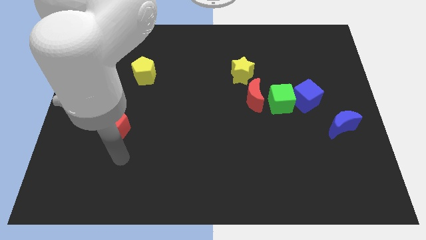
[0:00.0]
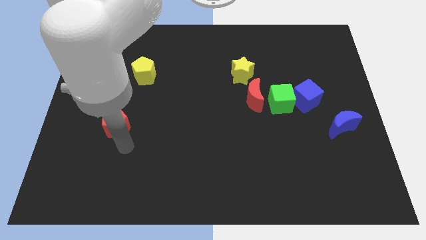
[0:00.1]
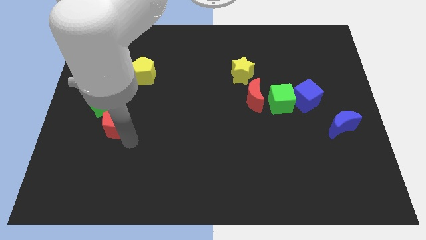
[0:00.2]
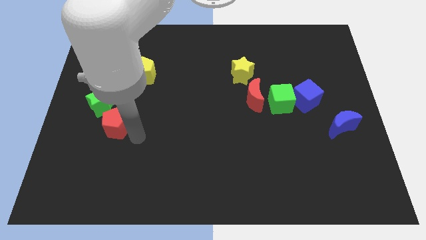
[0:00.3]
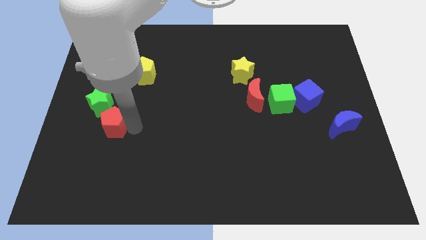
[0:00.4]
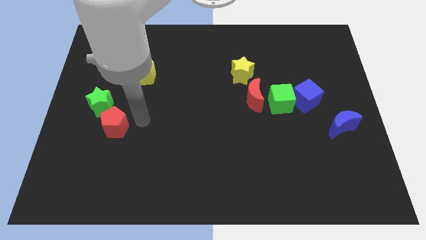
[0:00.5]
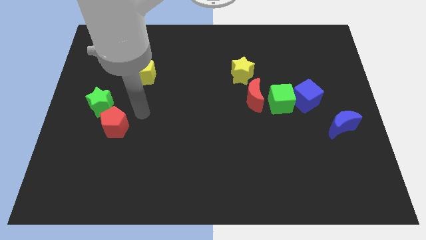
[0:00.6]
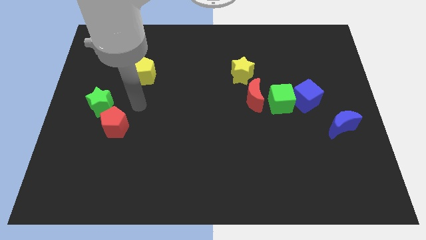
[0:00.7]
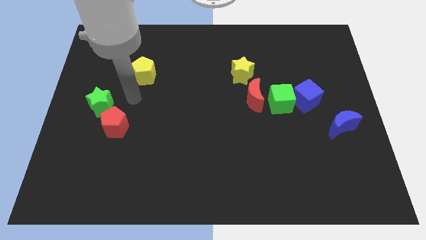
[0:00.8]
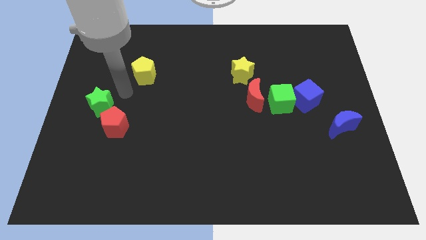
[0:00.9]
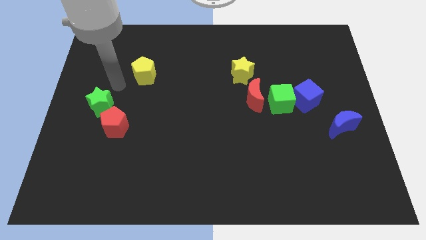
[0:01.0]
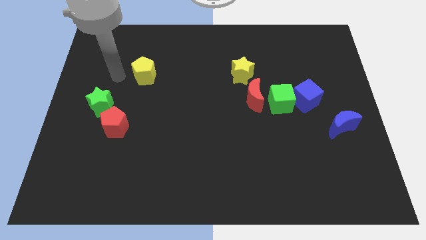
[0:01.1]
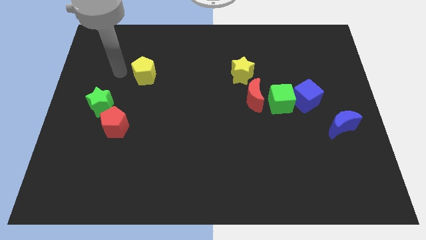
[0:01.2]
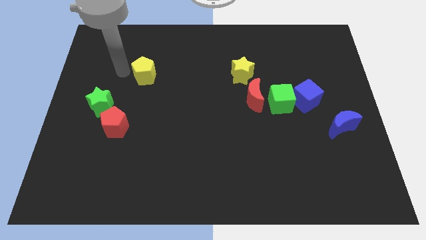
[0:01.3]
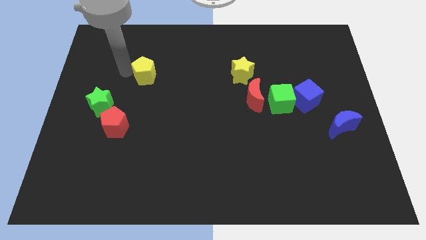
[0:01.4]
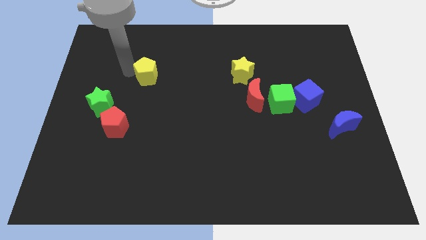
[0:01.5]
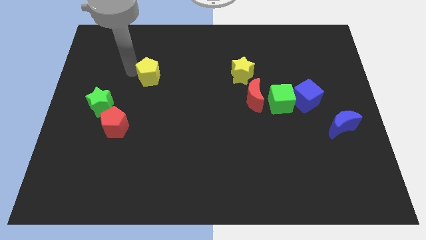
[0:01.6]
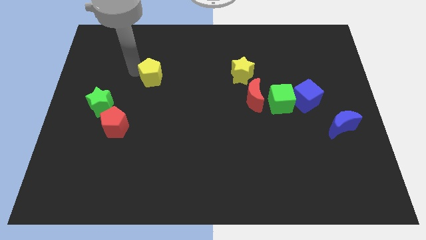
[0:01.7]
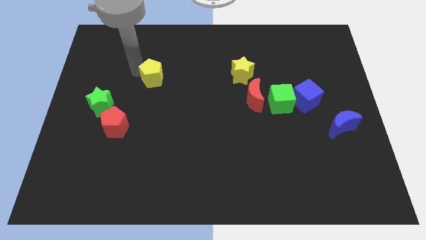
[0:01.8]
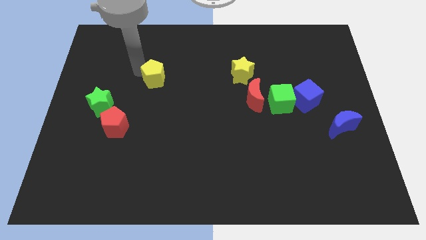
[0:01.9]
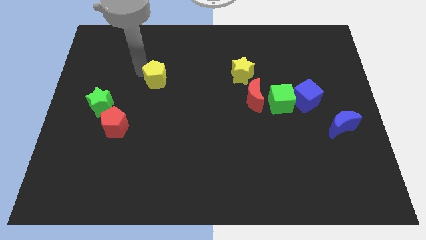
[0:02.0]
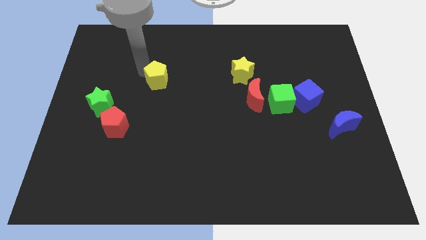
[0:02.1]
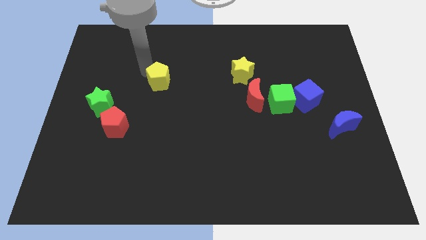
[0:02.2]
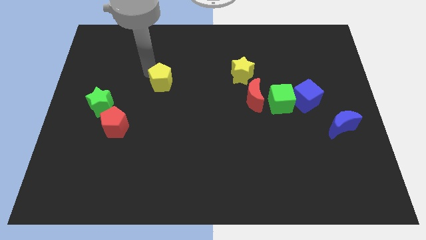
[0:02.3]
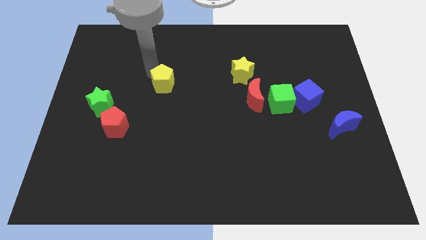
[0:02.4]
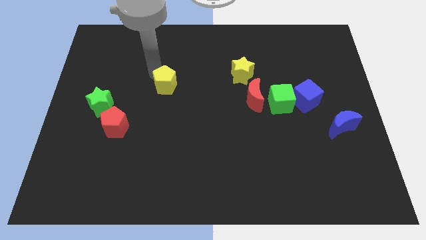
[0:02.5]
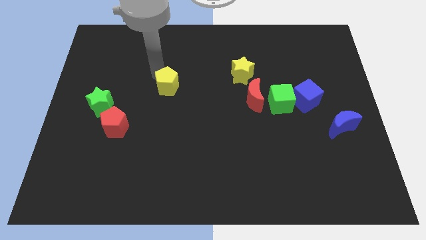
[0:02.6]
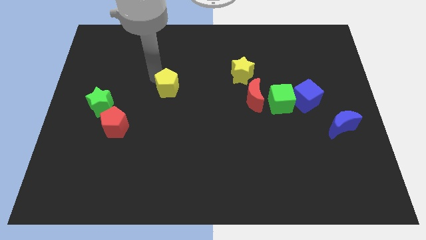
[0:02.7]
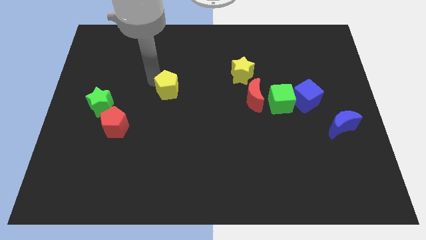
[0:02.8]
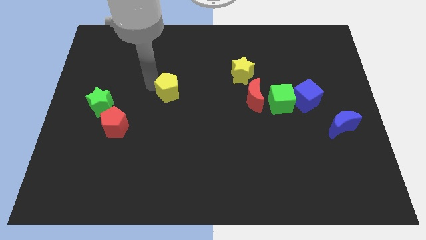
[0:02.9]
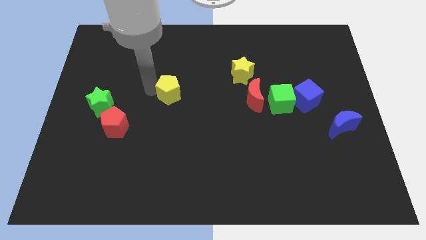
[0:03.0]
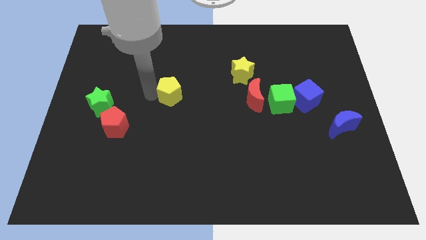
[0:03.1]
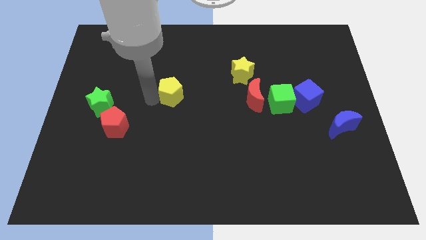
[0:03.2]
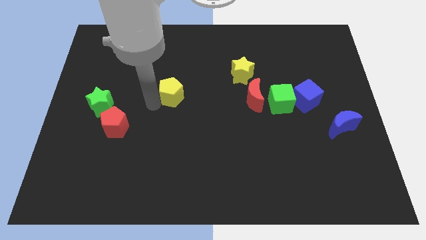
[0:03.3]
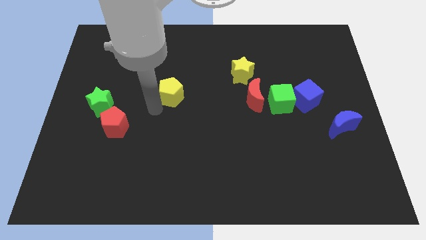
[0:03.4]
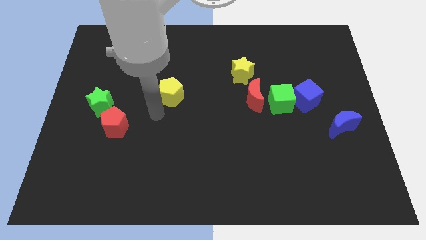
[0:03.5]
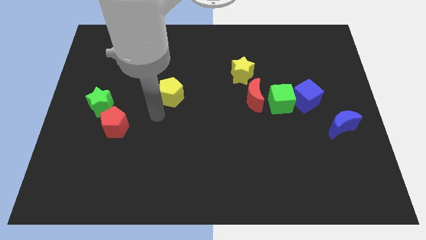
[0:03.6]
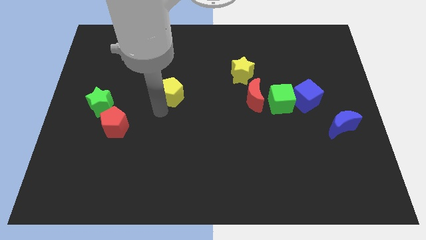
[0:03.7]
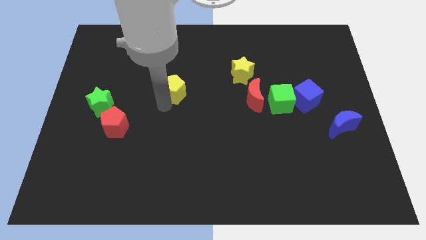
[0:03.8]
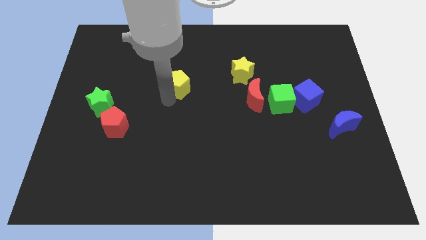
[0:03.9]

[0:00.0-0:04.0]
move the yellow pentagon somewhat right

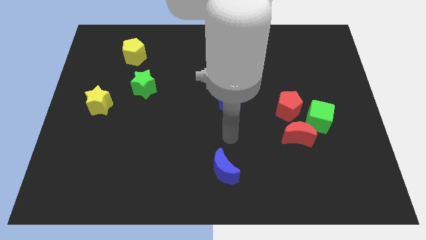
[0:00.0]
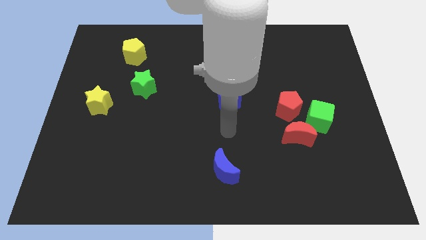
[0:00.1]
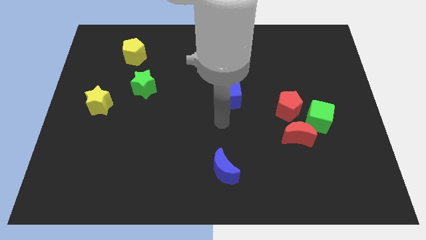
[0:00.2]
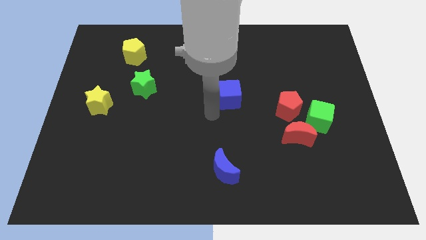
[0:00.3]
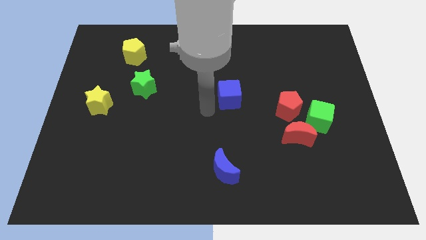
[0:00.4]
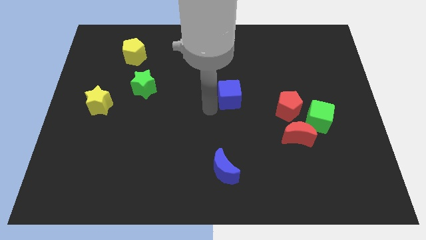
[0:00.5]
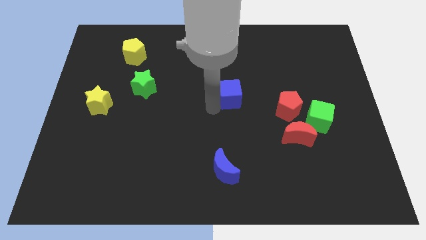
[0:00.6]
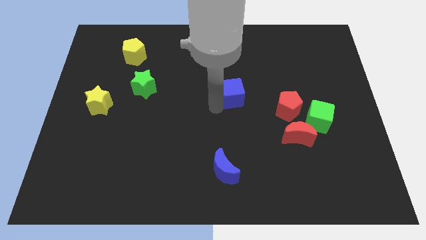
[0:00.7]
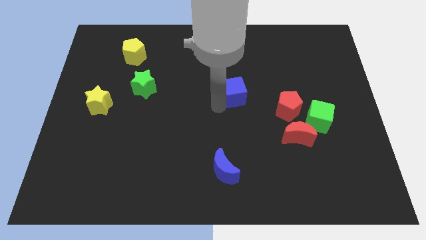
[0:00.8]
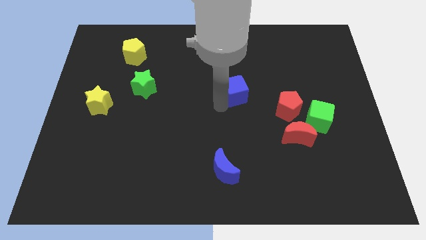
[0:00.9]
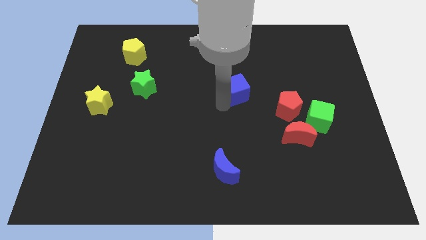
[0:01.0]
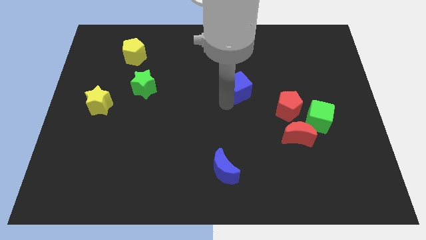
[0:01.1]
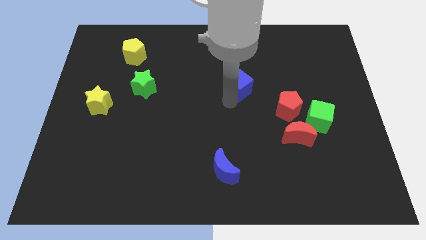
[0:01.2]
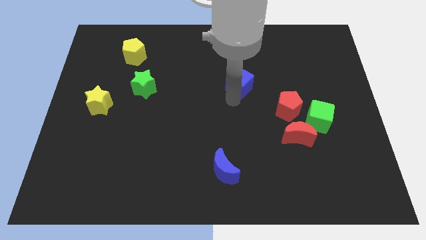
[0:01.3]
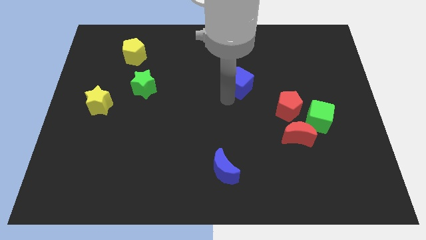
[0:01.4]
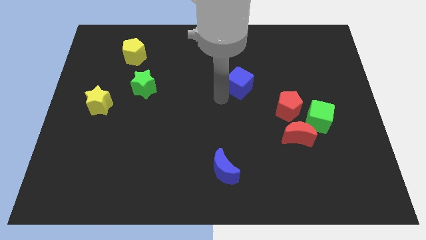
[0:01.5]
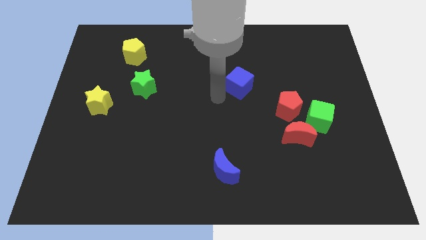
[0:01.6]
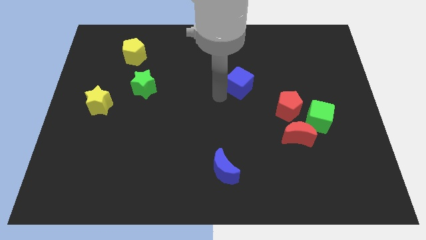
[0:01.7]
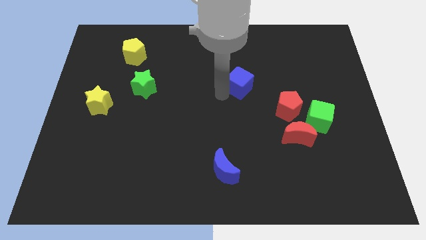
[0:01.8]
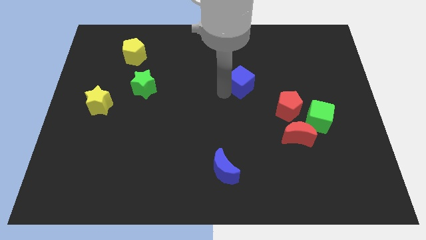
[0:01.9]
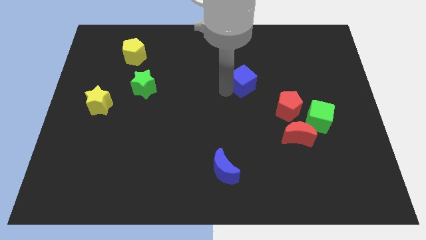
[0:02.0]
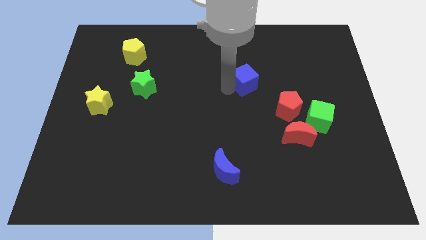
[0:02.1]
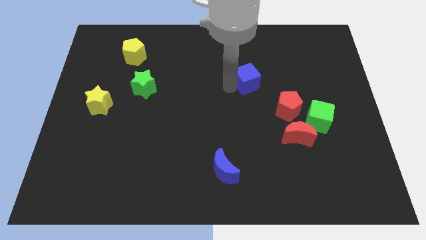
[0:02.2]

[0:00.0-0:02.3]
push the blue cube a little upwards and then right

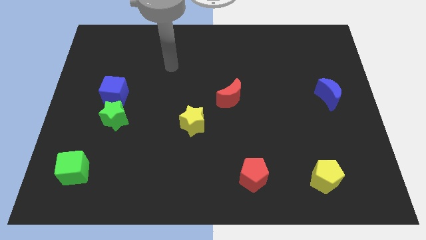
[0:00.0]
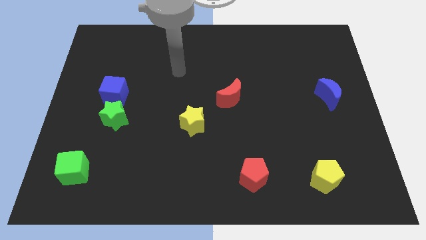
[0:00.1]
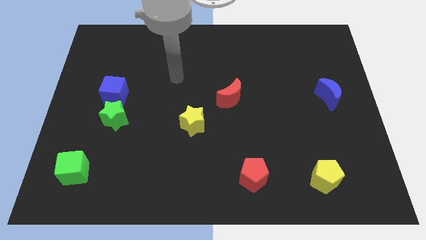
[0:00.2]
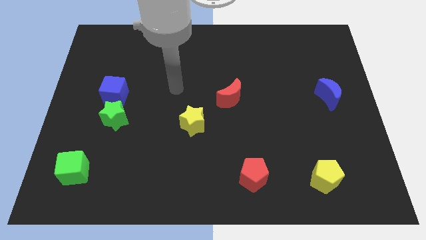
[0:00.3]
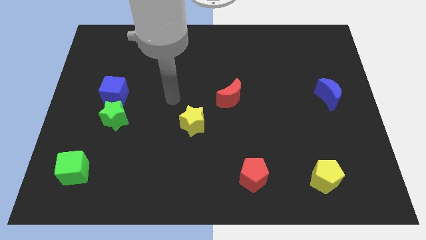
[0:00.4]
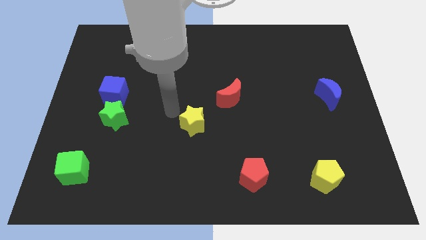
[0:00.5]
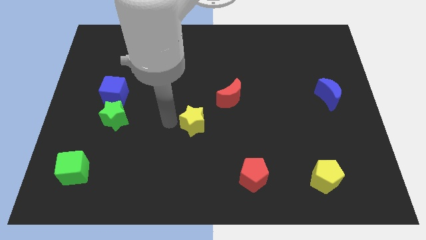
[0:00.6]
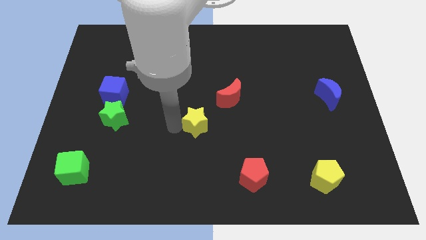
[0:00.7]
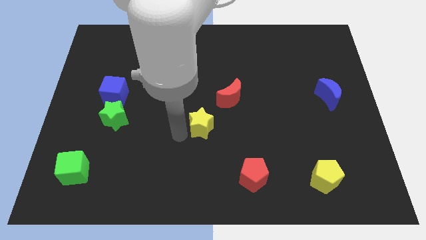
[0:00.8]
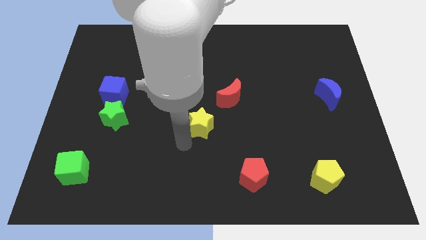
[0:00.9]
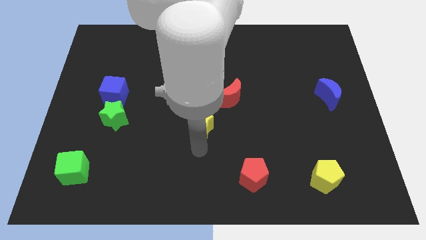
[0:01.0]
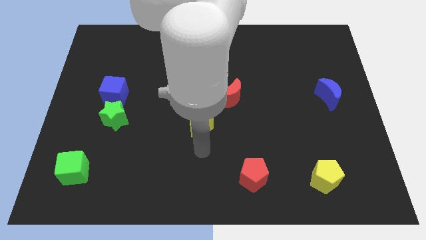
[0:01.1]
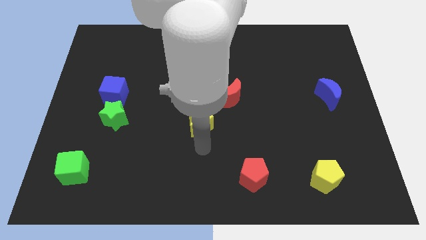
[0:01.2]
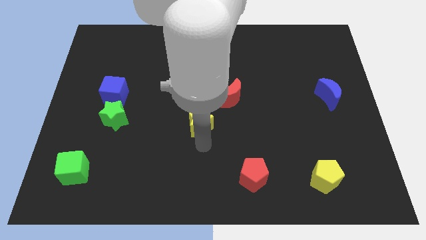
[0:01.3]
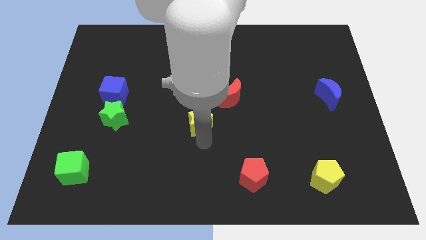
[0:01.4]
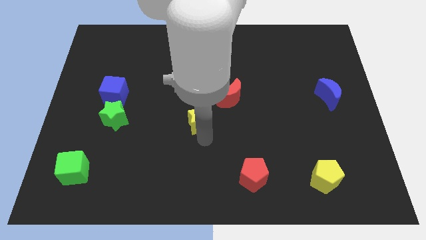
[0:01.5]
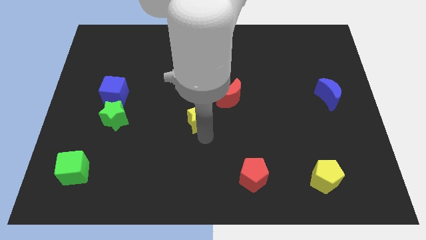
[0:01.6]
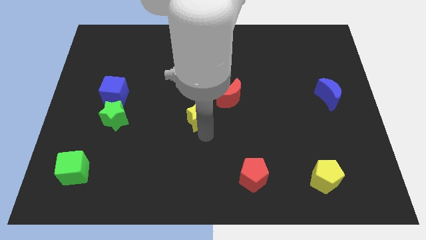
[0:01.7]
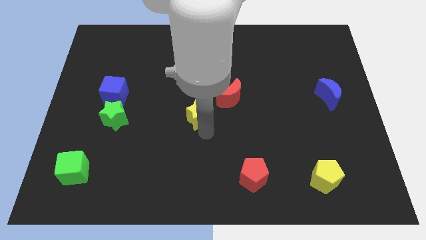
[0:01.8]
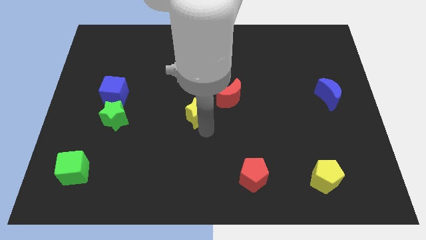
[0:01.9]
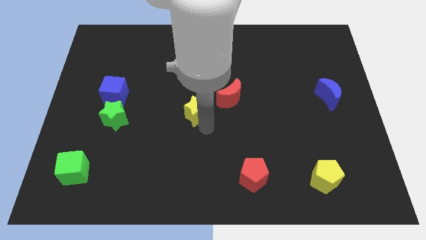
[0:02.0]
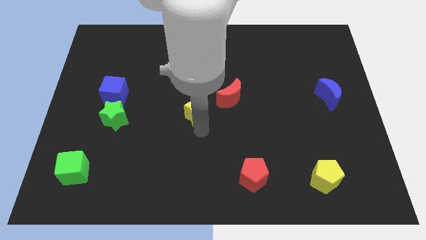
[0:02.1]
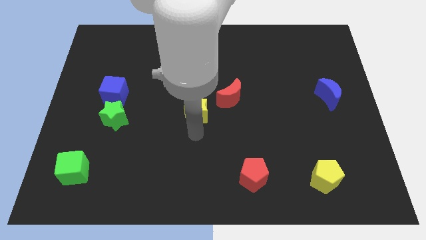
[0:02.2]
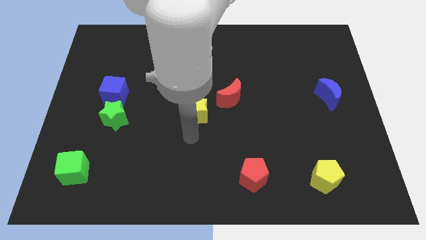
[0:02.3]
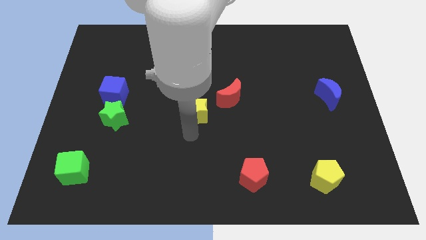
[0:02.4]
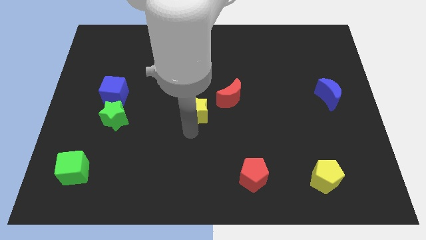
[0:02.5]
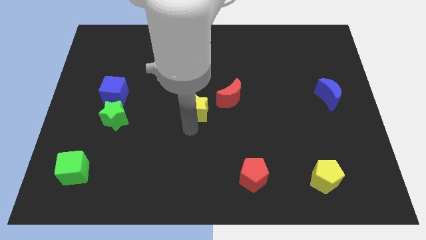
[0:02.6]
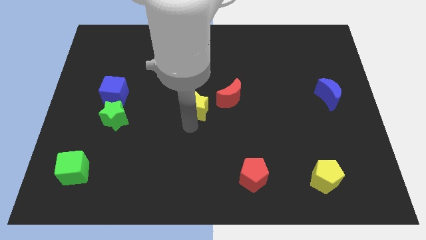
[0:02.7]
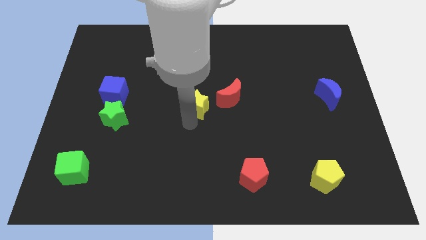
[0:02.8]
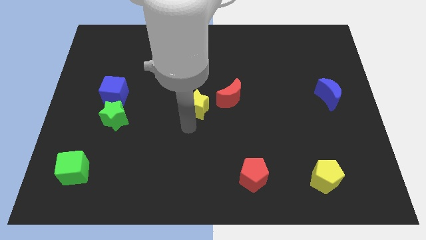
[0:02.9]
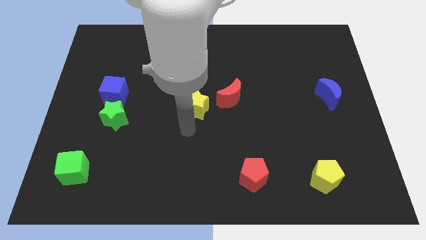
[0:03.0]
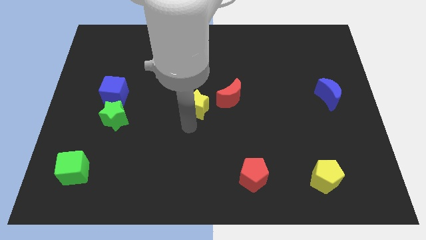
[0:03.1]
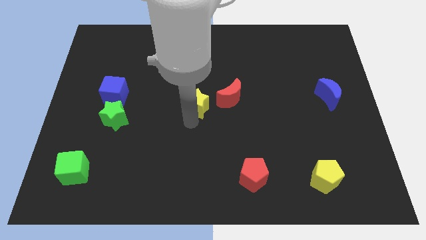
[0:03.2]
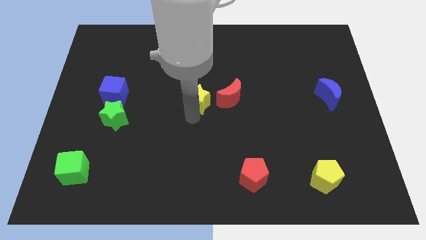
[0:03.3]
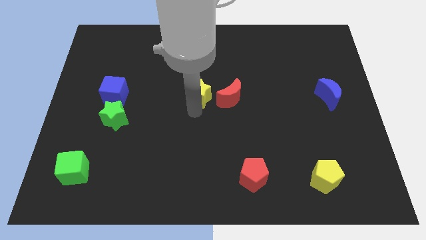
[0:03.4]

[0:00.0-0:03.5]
move the yellow star upwards slightly
